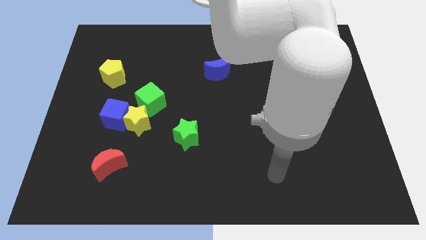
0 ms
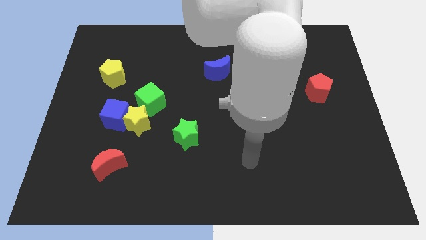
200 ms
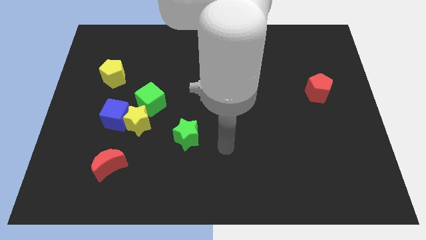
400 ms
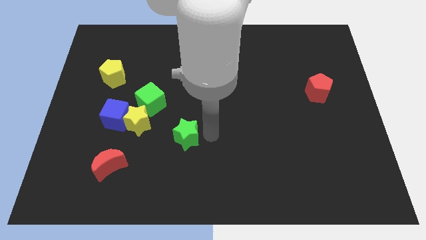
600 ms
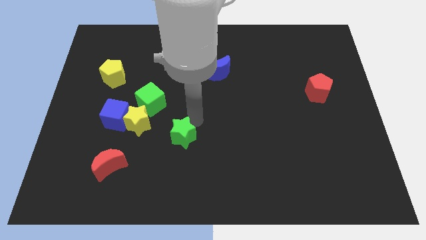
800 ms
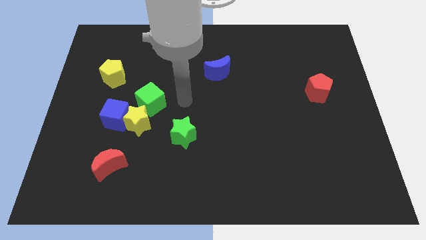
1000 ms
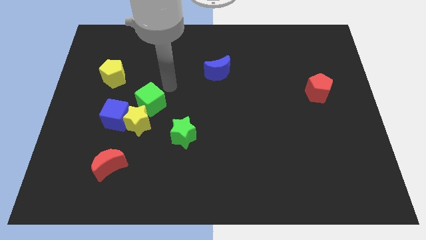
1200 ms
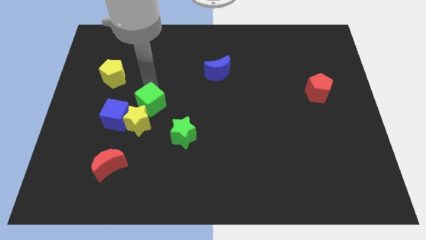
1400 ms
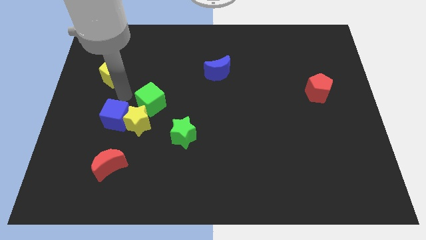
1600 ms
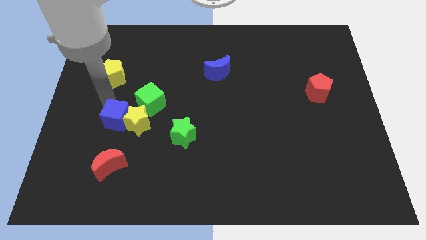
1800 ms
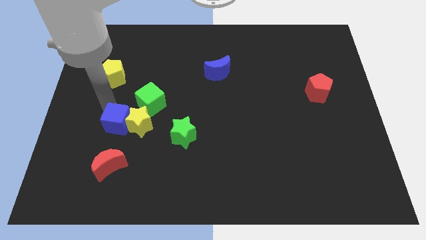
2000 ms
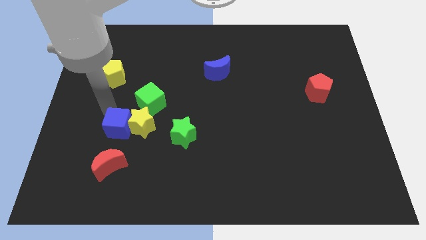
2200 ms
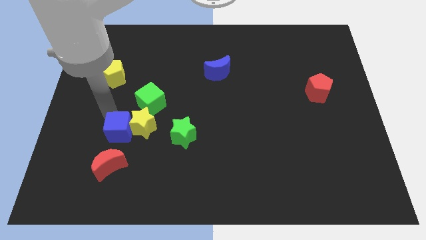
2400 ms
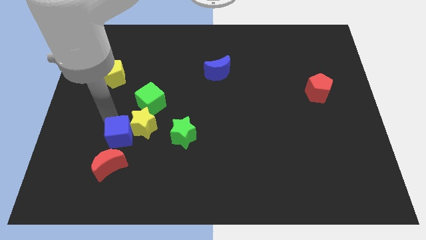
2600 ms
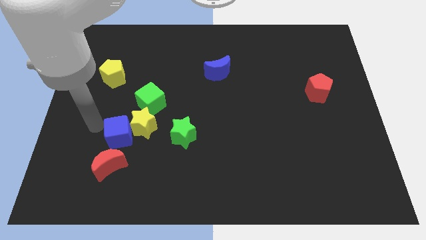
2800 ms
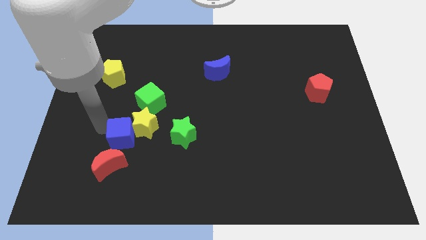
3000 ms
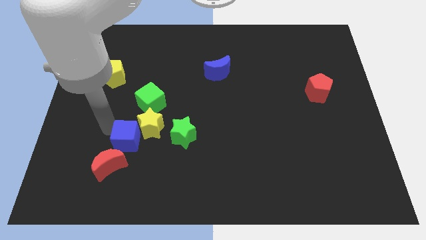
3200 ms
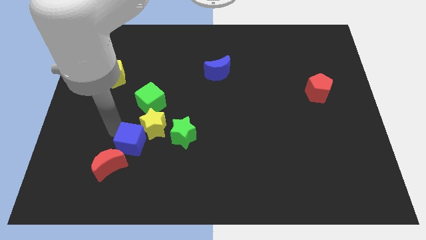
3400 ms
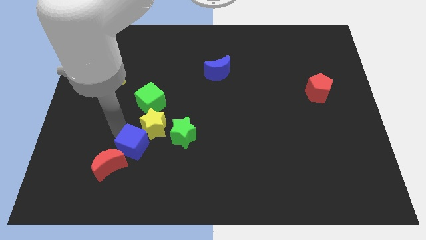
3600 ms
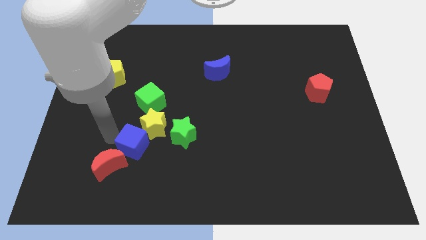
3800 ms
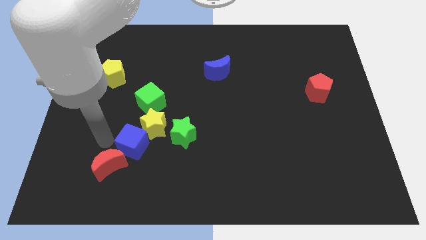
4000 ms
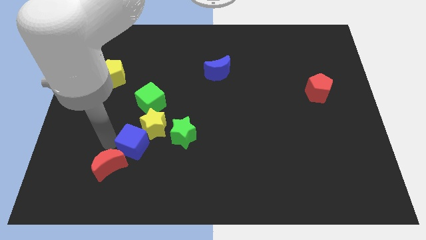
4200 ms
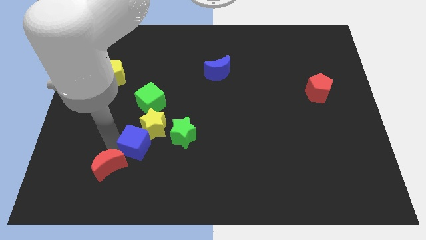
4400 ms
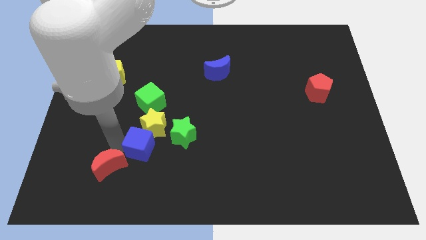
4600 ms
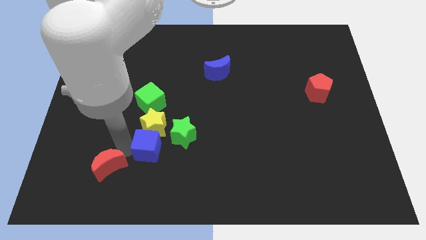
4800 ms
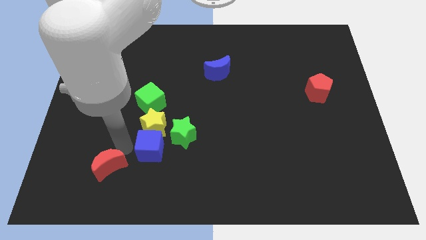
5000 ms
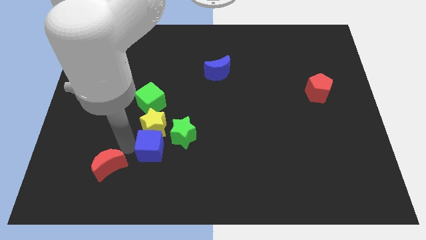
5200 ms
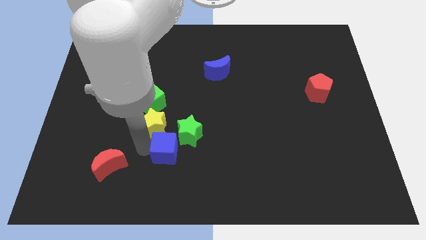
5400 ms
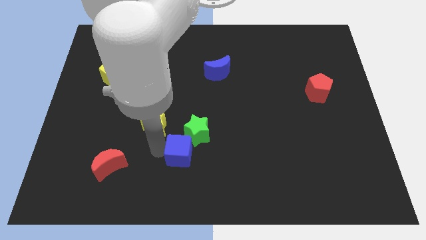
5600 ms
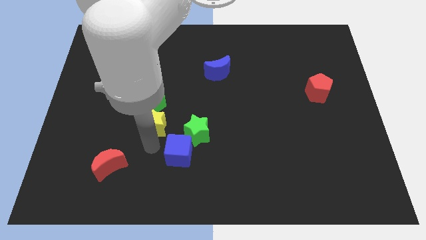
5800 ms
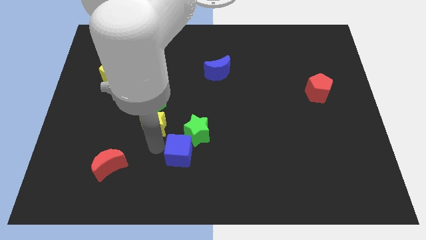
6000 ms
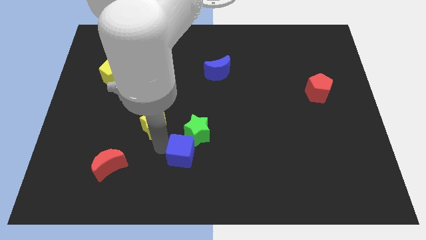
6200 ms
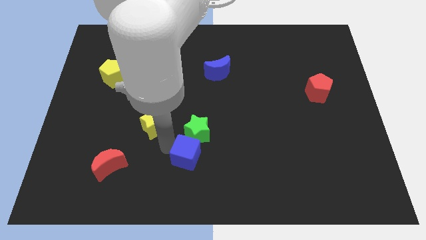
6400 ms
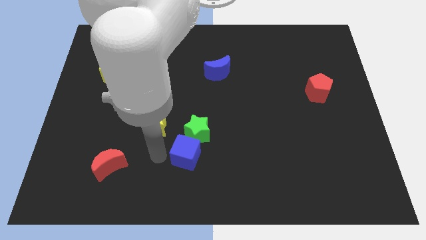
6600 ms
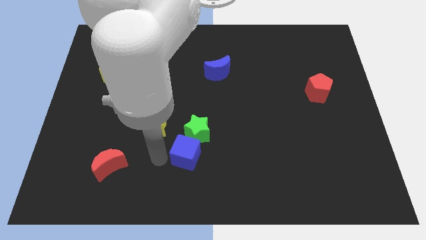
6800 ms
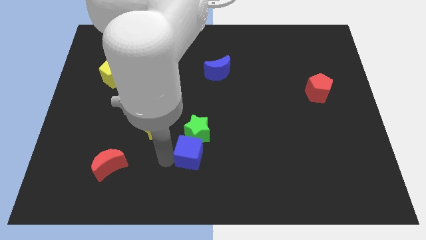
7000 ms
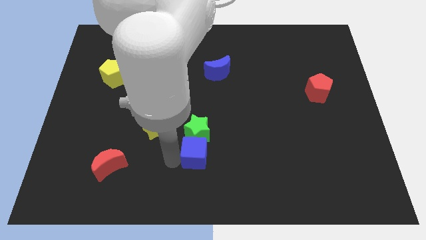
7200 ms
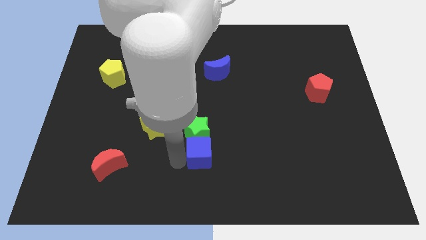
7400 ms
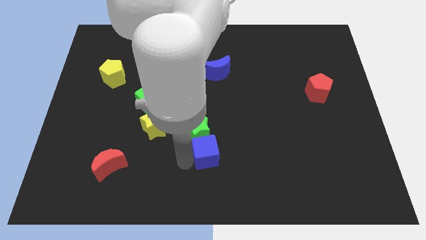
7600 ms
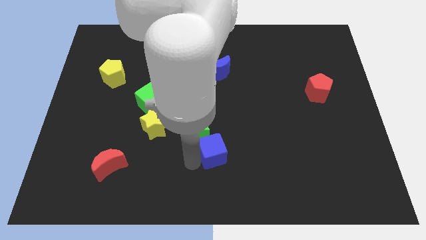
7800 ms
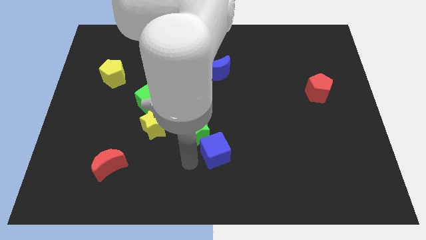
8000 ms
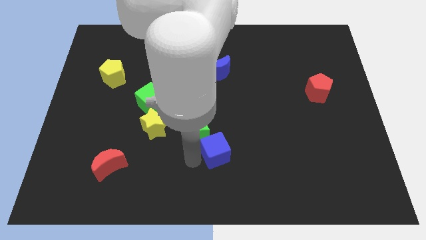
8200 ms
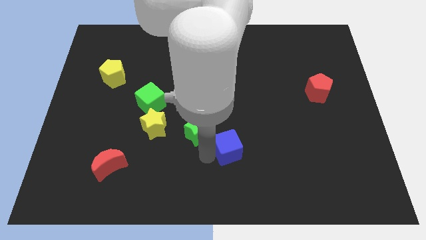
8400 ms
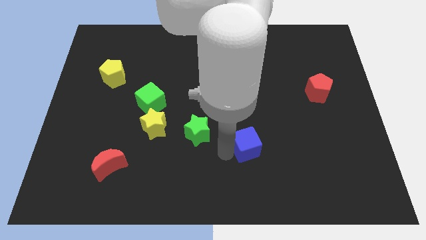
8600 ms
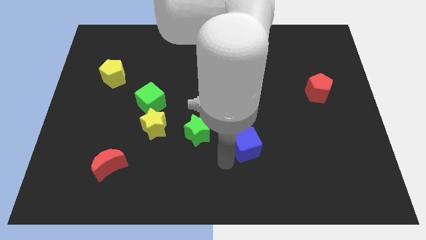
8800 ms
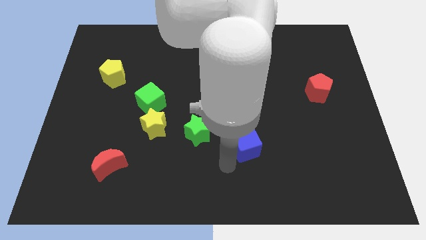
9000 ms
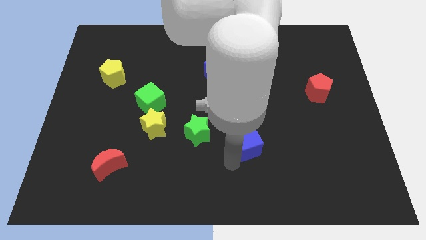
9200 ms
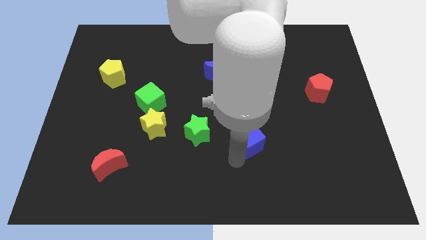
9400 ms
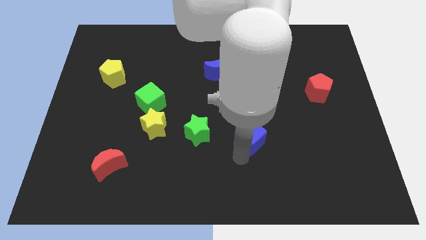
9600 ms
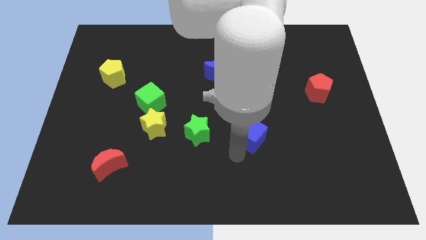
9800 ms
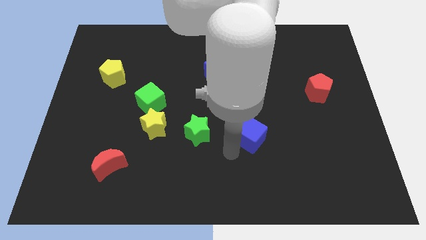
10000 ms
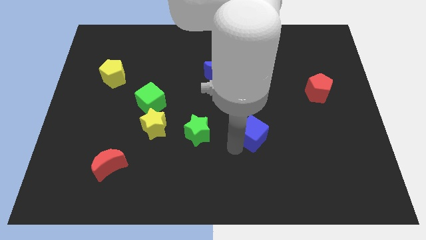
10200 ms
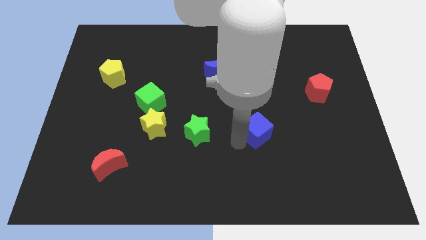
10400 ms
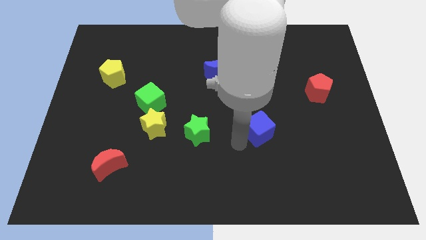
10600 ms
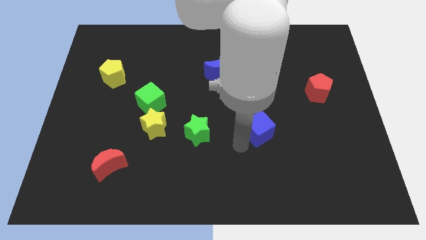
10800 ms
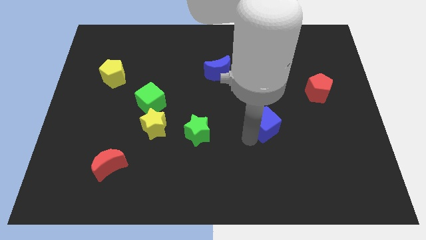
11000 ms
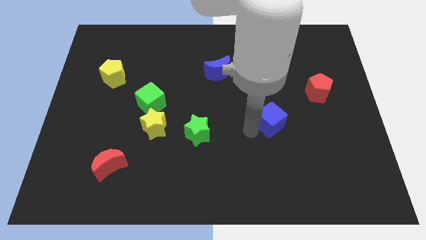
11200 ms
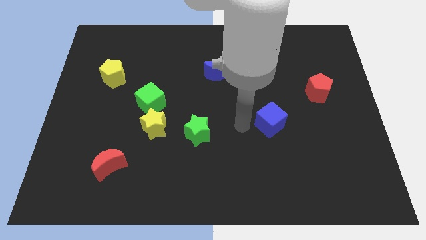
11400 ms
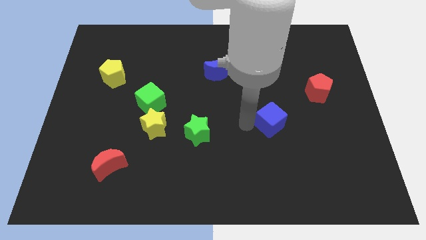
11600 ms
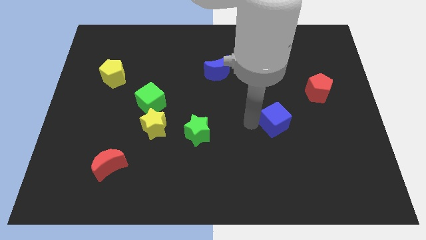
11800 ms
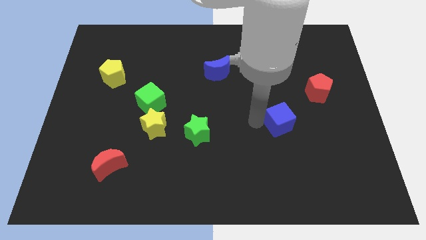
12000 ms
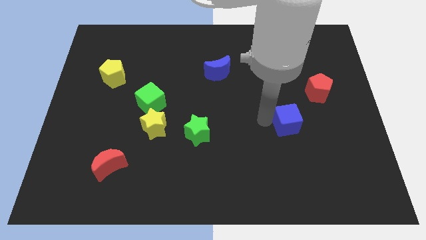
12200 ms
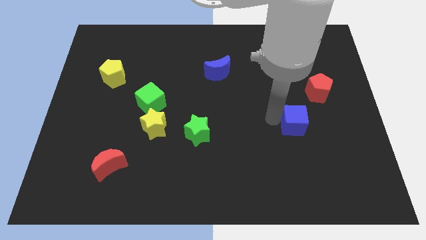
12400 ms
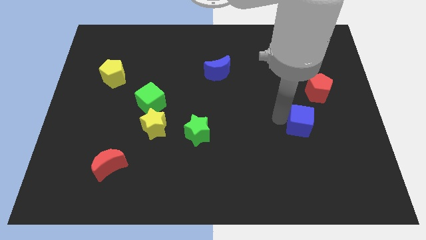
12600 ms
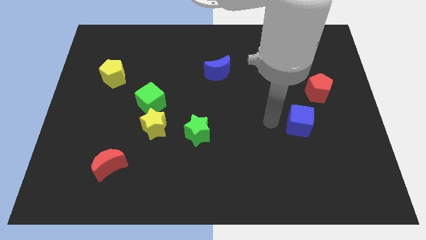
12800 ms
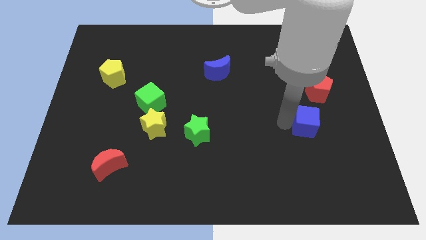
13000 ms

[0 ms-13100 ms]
move the blue cube below the red pentagon

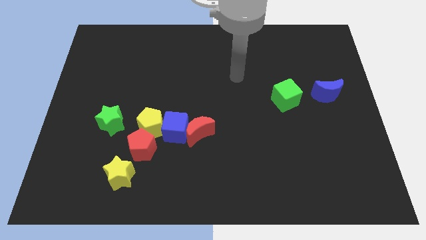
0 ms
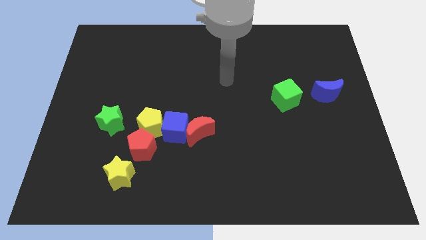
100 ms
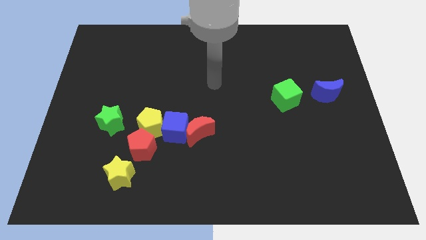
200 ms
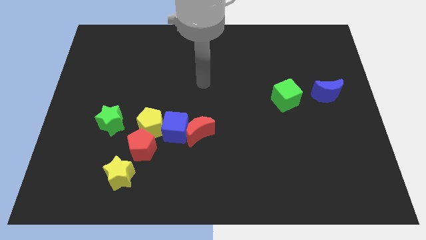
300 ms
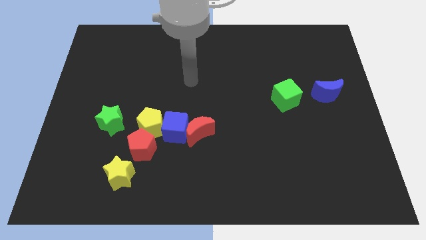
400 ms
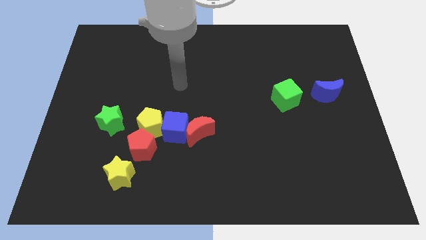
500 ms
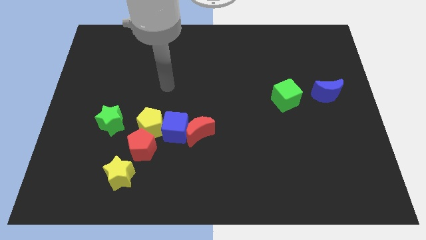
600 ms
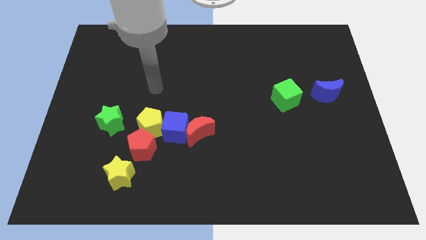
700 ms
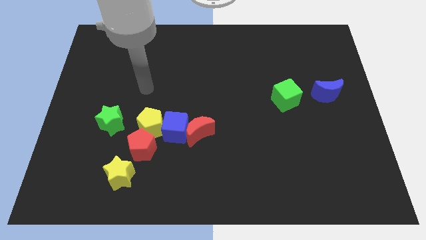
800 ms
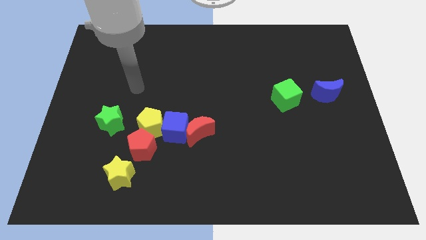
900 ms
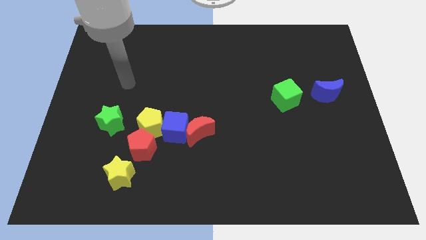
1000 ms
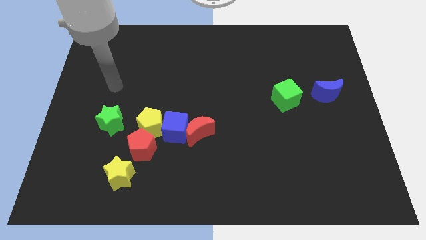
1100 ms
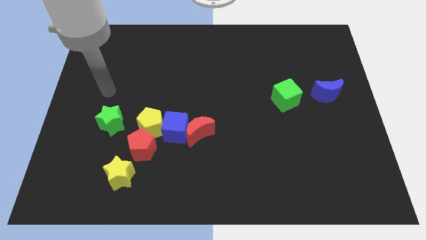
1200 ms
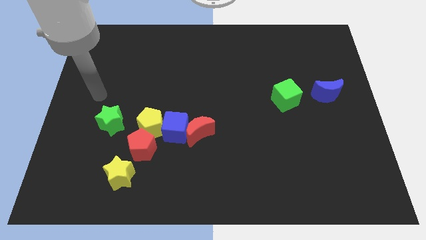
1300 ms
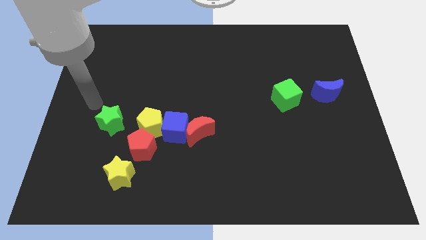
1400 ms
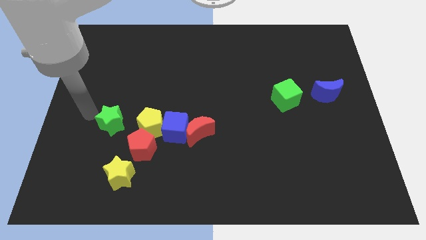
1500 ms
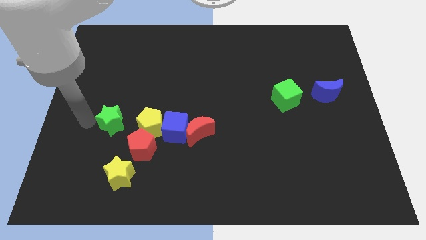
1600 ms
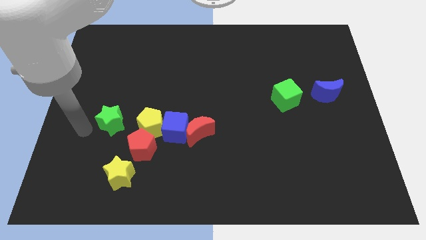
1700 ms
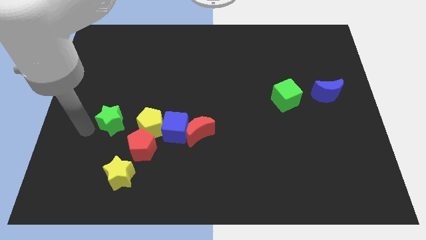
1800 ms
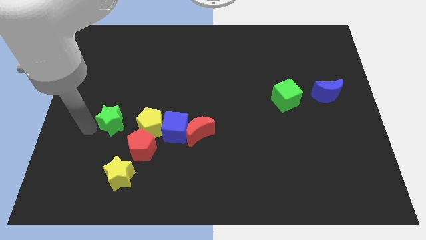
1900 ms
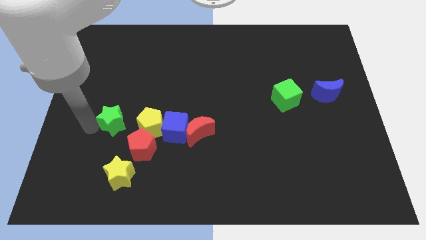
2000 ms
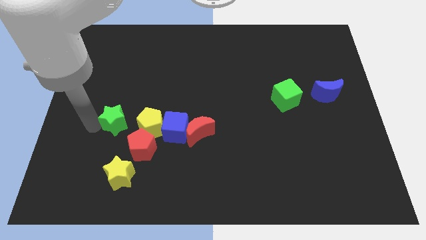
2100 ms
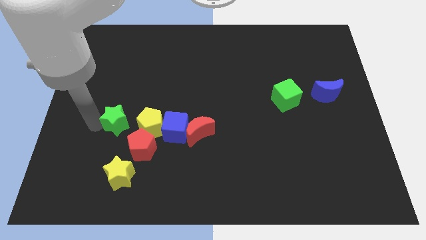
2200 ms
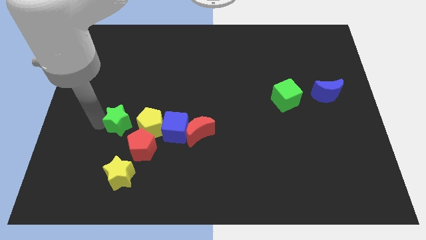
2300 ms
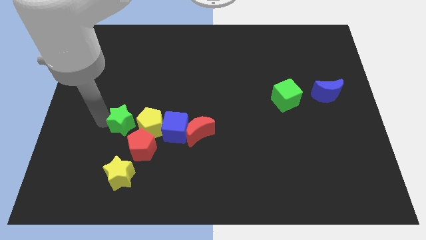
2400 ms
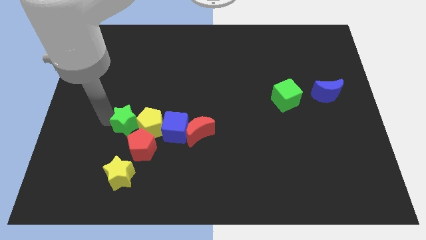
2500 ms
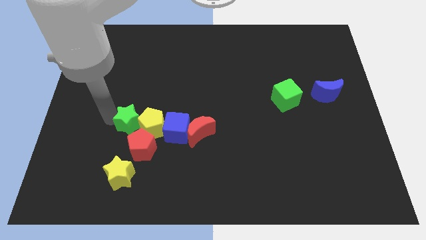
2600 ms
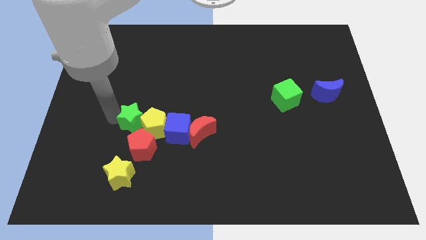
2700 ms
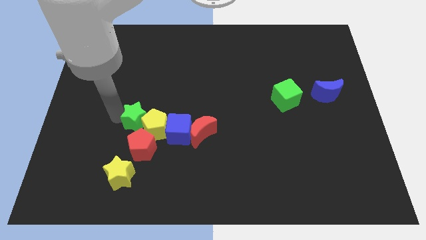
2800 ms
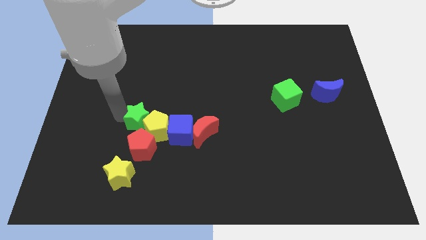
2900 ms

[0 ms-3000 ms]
move the green star to the top left side of the blue cube
